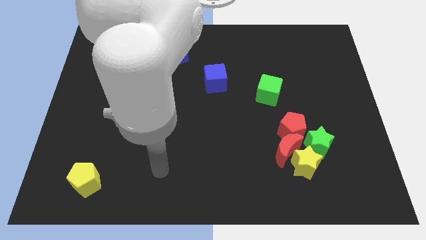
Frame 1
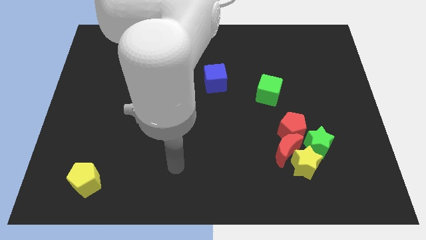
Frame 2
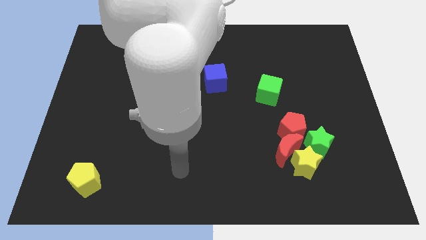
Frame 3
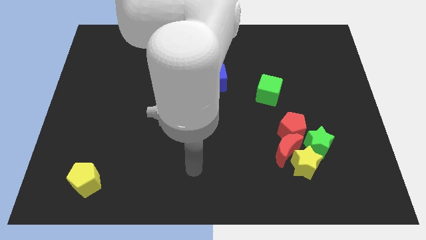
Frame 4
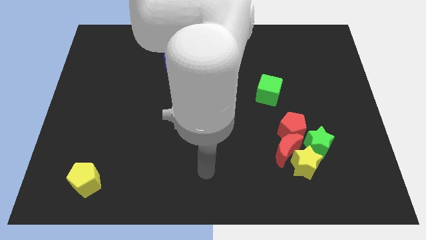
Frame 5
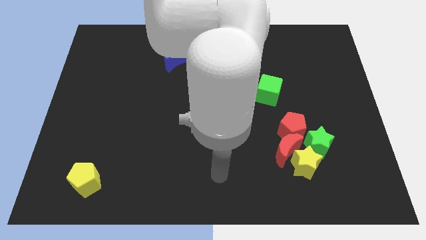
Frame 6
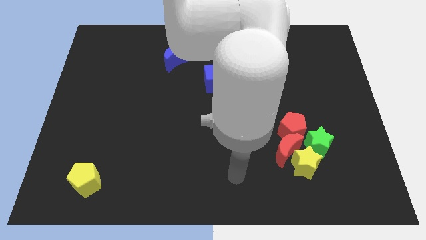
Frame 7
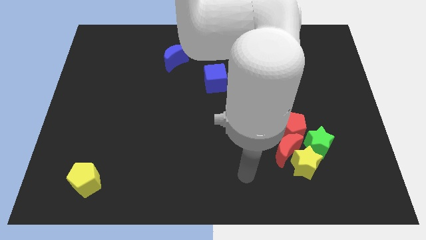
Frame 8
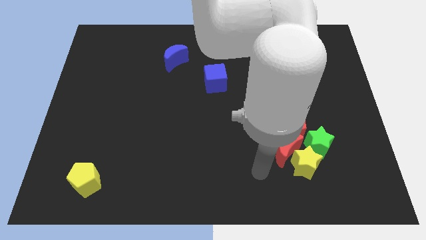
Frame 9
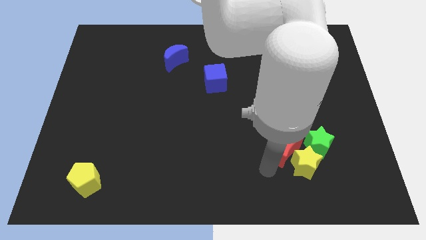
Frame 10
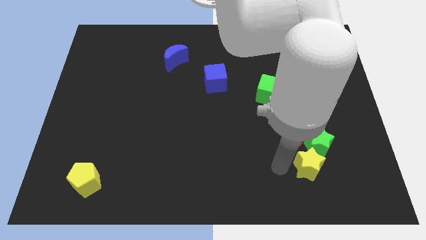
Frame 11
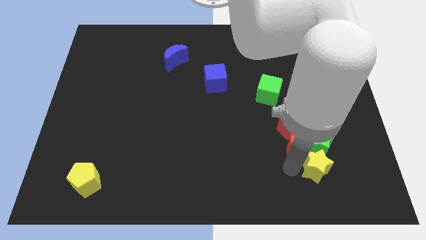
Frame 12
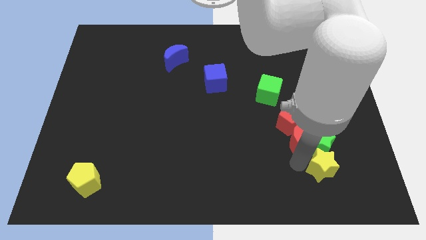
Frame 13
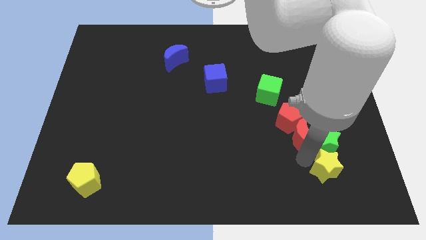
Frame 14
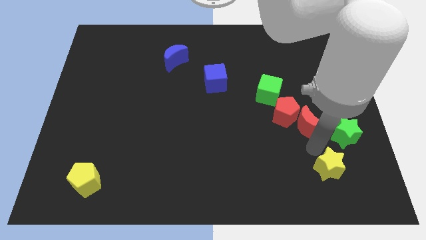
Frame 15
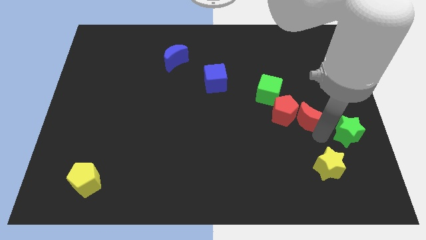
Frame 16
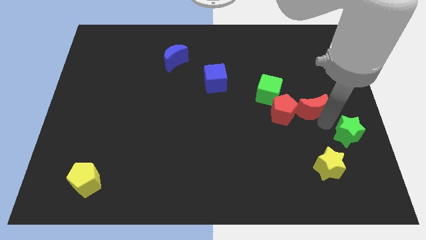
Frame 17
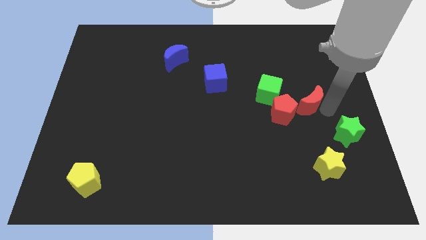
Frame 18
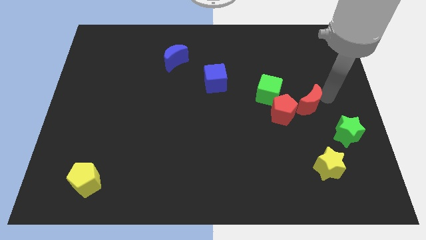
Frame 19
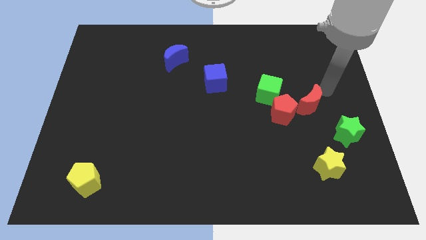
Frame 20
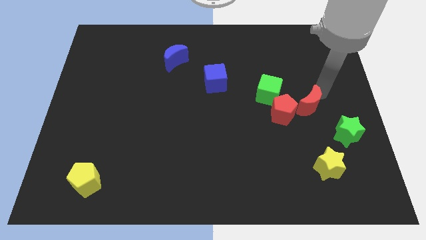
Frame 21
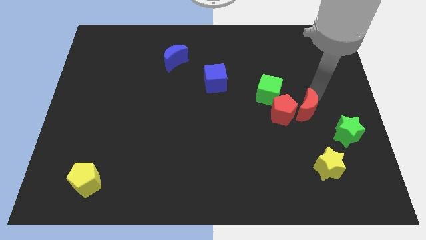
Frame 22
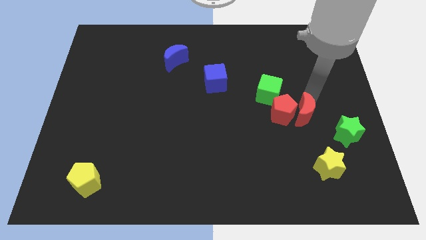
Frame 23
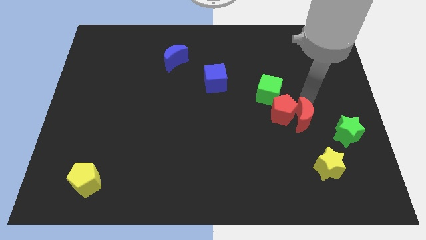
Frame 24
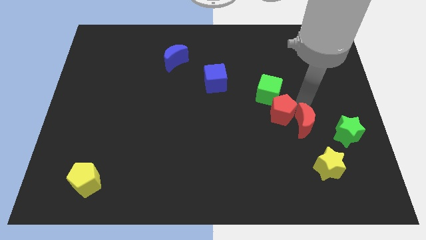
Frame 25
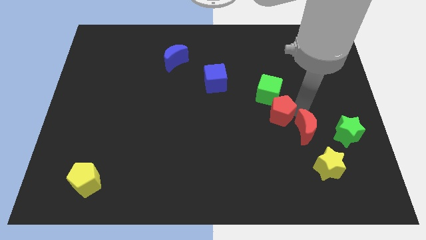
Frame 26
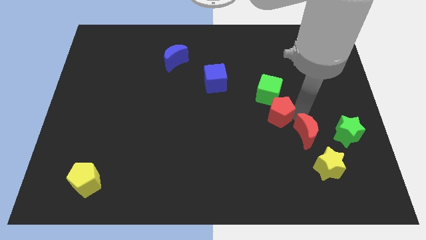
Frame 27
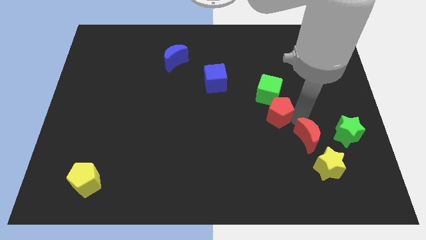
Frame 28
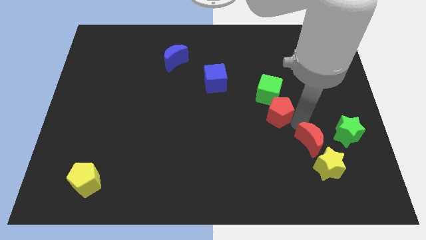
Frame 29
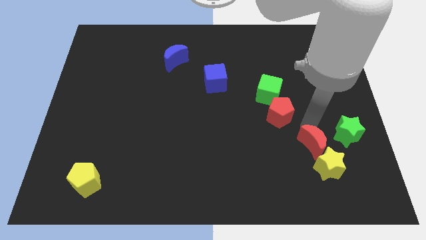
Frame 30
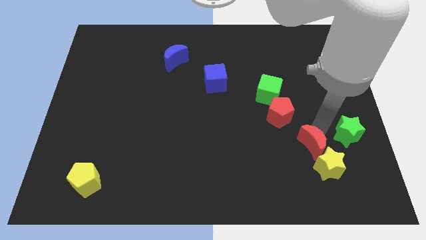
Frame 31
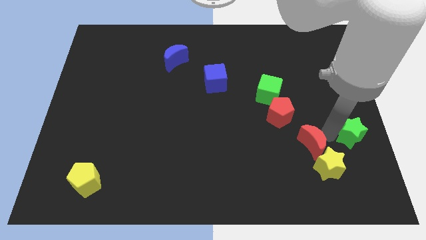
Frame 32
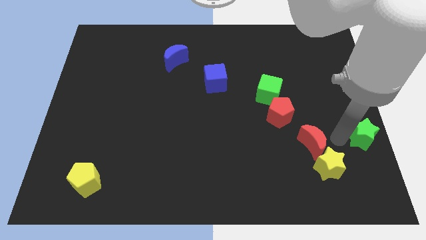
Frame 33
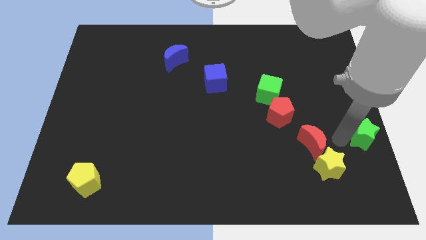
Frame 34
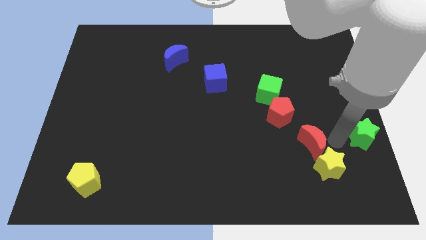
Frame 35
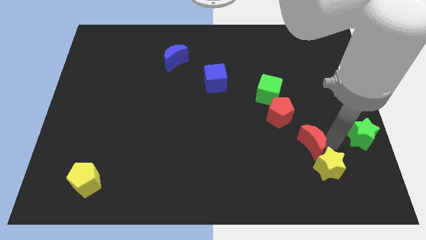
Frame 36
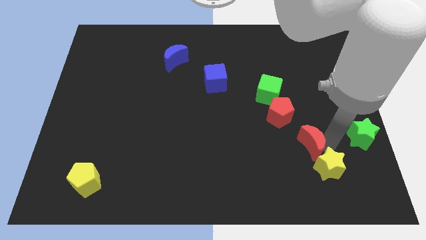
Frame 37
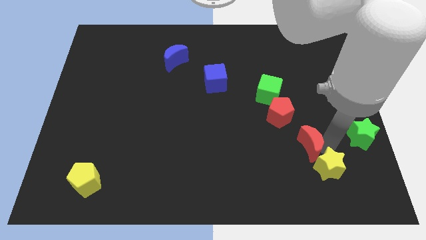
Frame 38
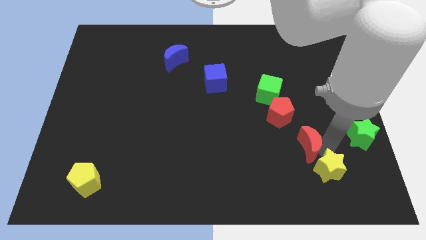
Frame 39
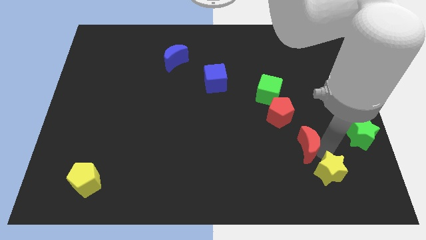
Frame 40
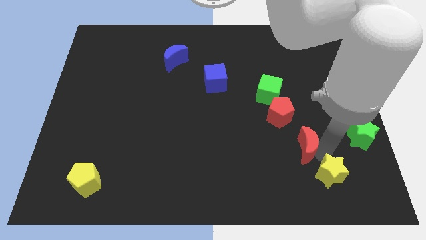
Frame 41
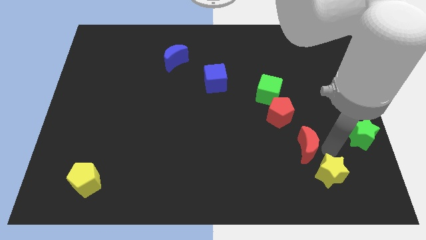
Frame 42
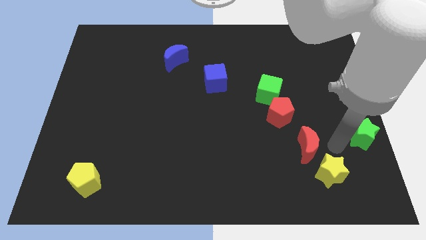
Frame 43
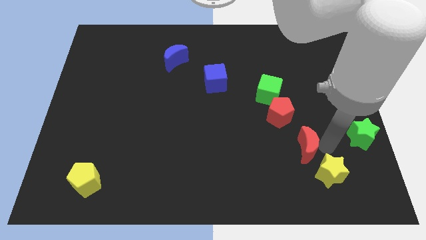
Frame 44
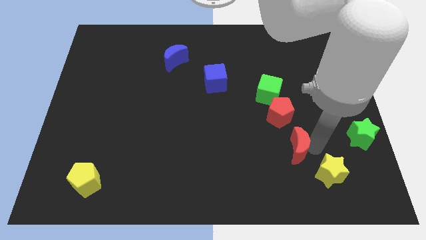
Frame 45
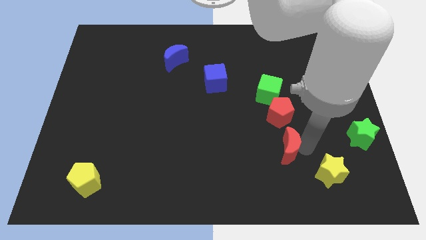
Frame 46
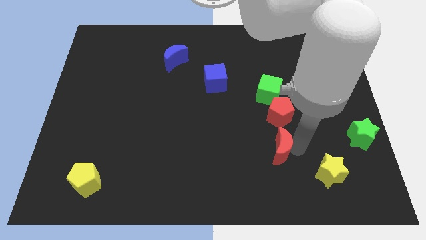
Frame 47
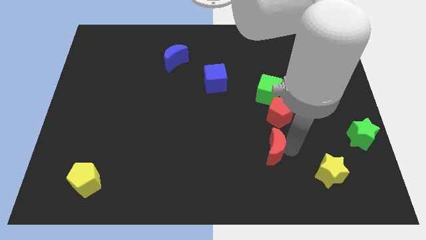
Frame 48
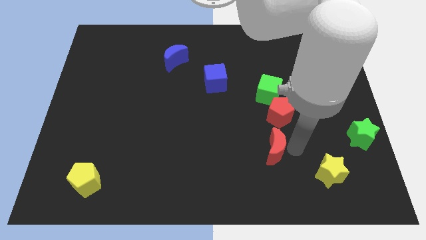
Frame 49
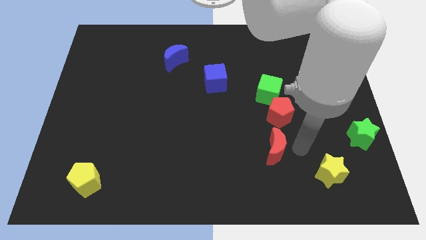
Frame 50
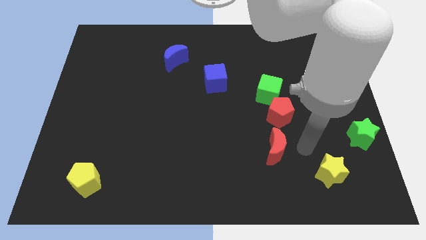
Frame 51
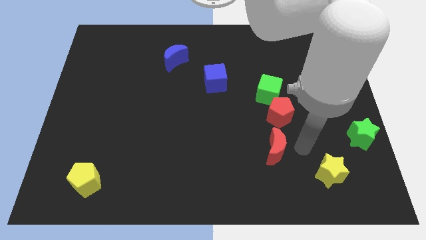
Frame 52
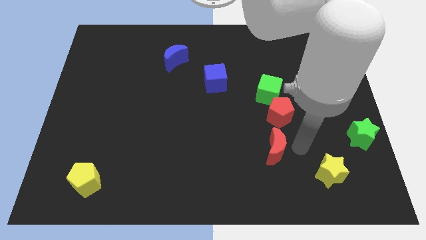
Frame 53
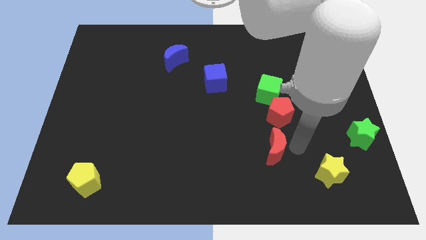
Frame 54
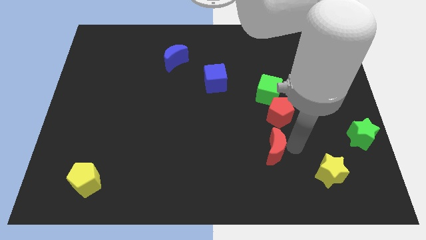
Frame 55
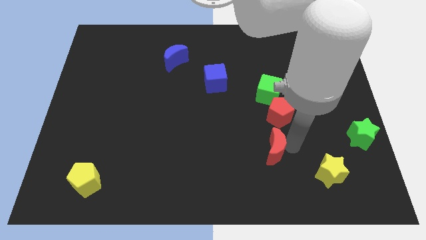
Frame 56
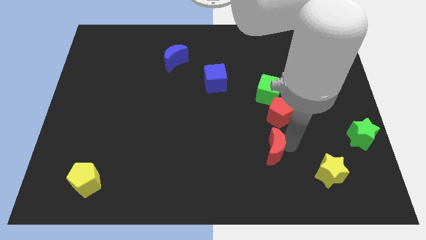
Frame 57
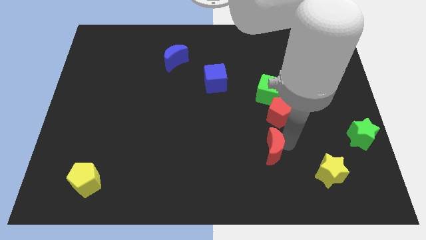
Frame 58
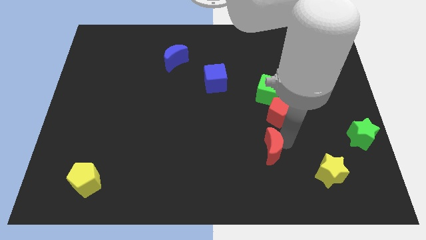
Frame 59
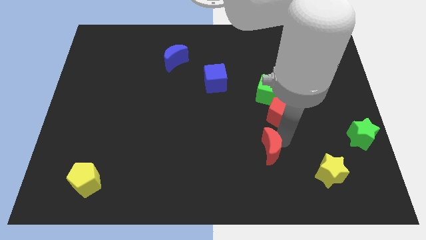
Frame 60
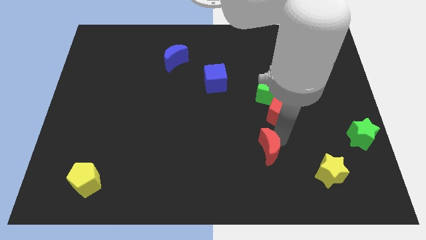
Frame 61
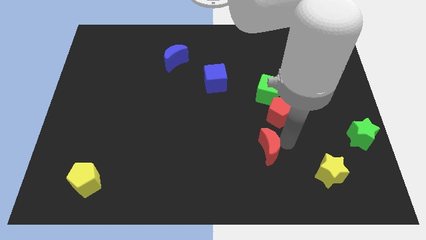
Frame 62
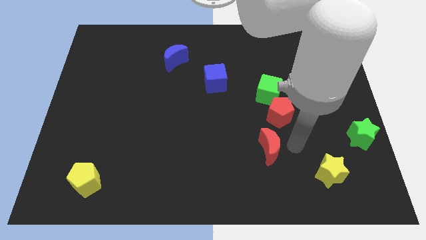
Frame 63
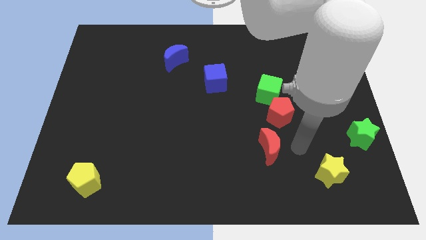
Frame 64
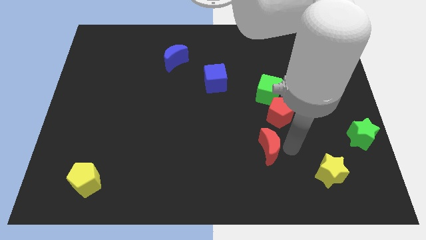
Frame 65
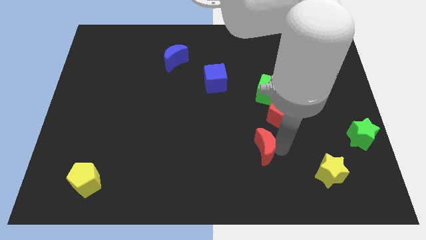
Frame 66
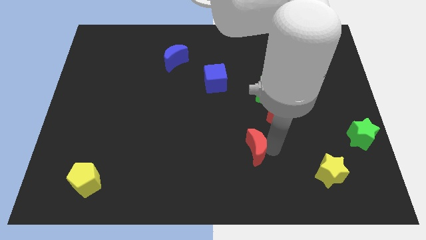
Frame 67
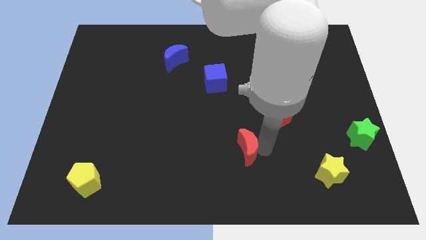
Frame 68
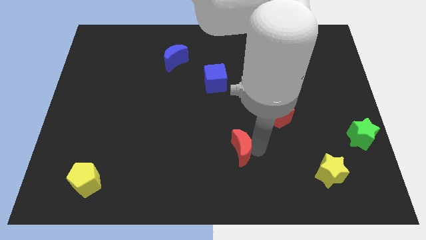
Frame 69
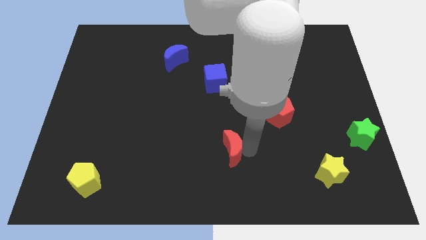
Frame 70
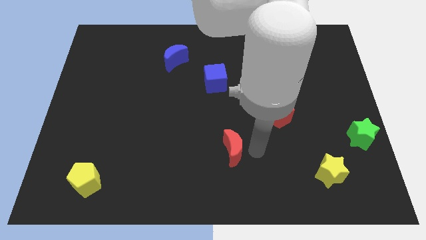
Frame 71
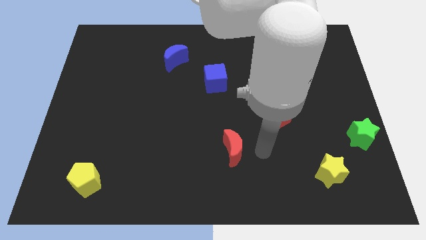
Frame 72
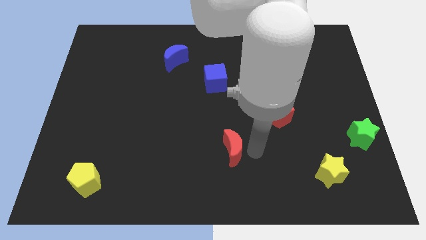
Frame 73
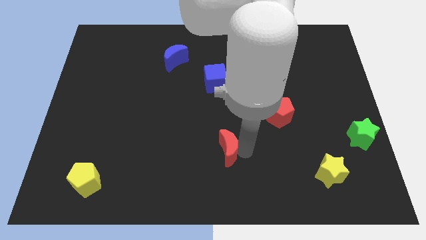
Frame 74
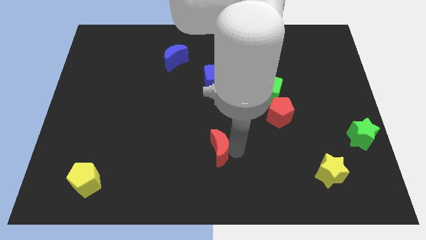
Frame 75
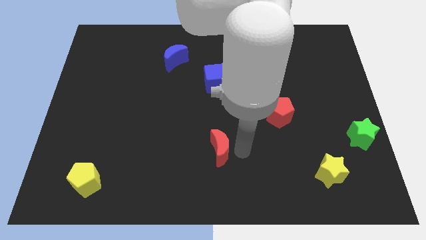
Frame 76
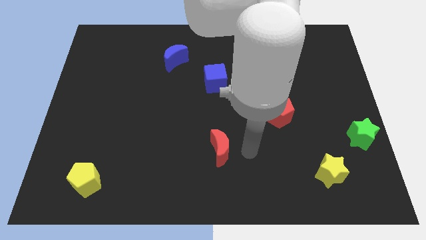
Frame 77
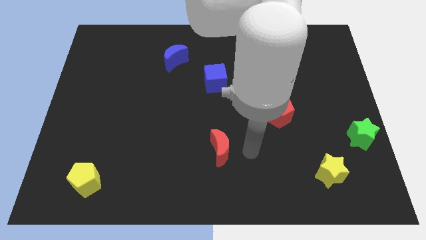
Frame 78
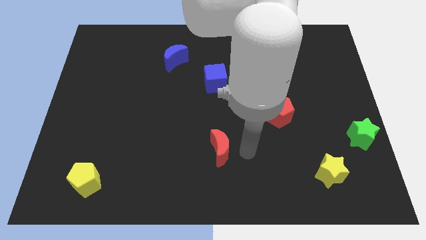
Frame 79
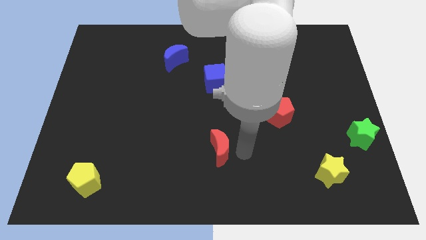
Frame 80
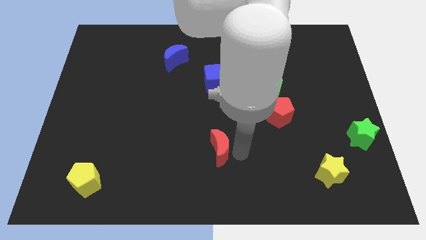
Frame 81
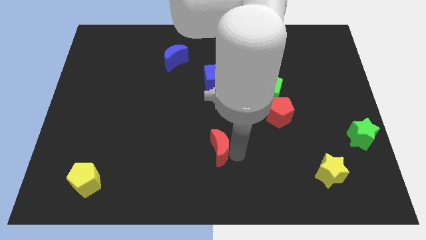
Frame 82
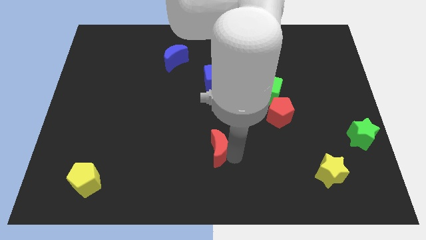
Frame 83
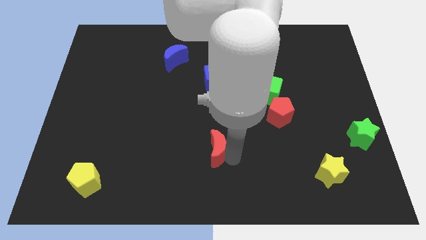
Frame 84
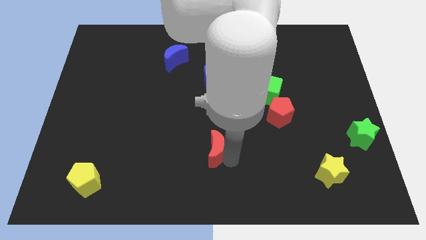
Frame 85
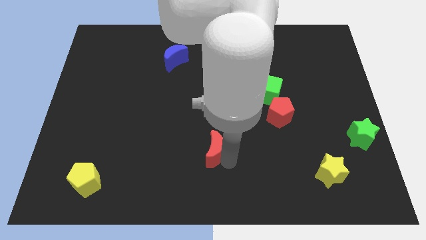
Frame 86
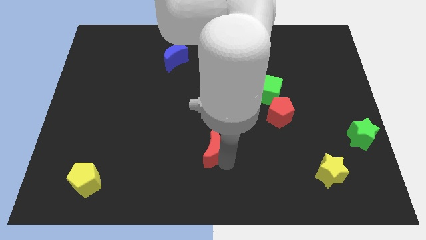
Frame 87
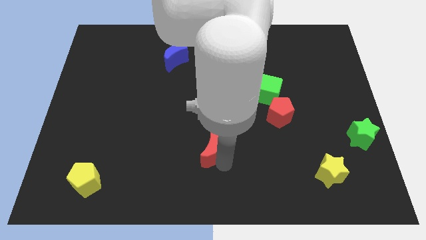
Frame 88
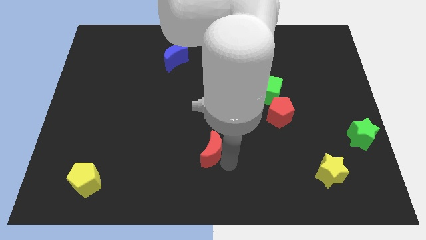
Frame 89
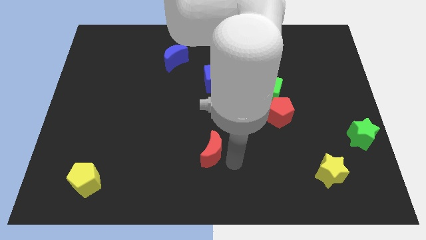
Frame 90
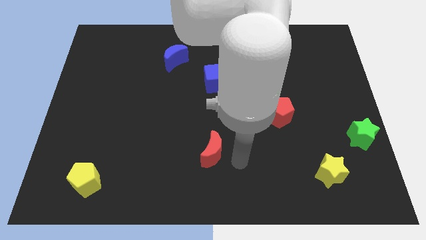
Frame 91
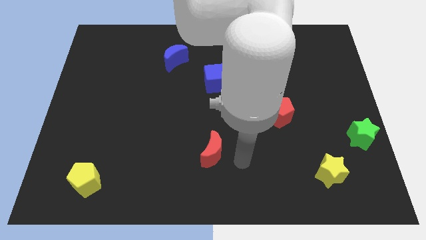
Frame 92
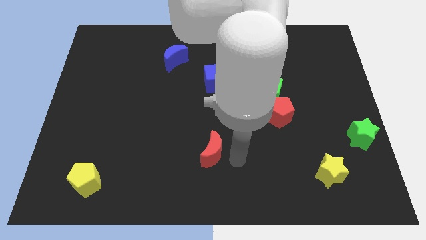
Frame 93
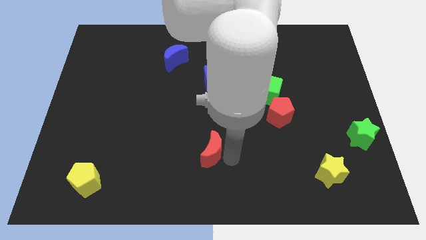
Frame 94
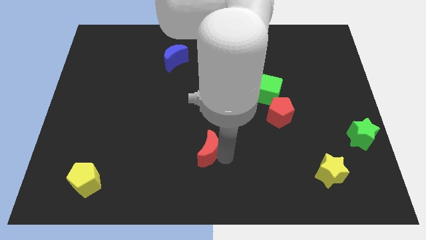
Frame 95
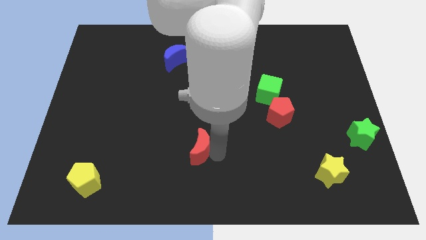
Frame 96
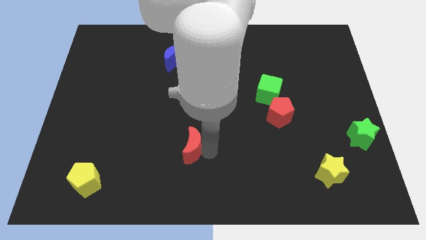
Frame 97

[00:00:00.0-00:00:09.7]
slide the red moon left
